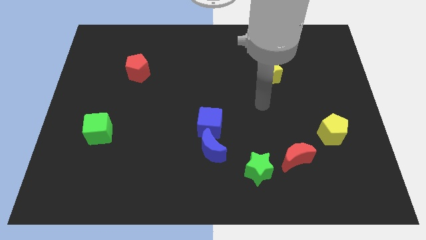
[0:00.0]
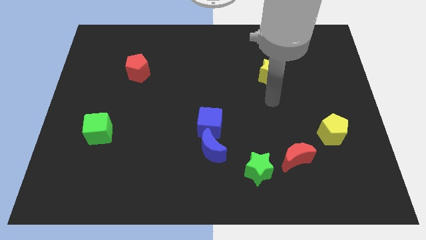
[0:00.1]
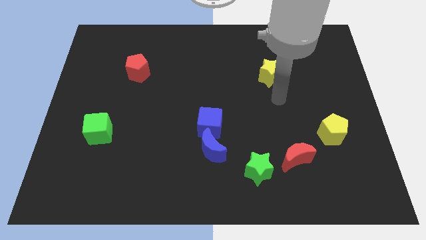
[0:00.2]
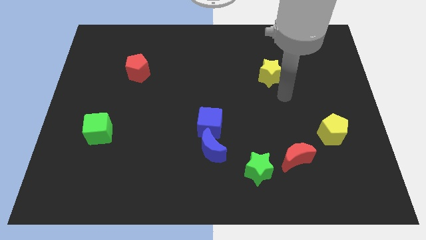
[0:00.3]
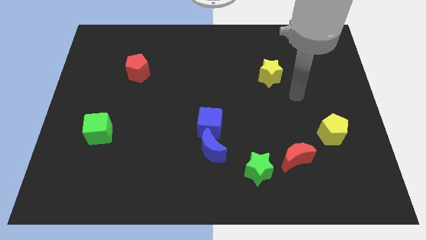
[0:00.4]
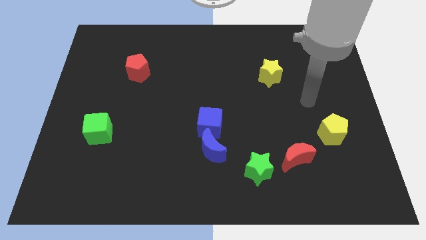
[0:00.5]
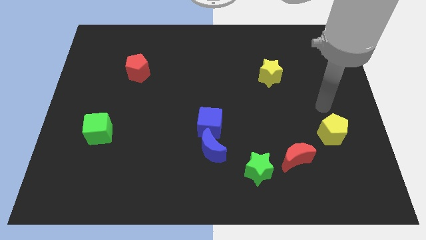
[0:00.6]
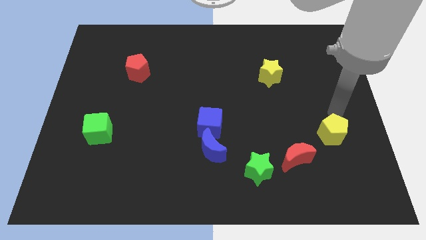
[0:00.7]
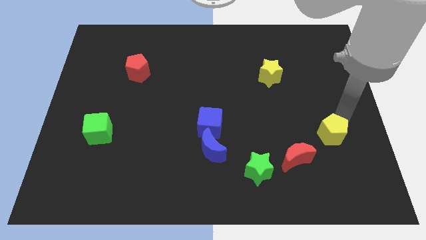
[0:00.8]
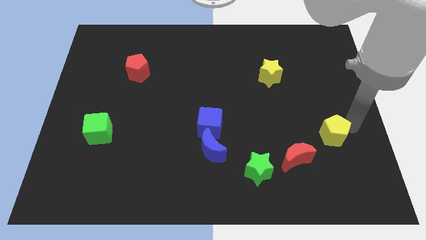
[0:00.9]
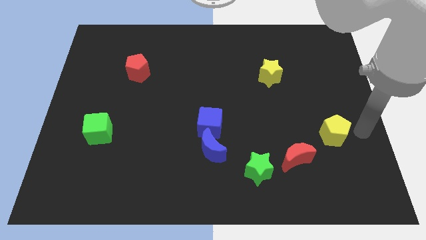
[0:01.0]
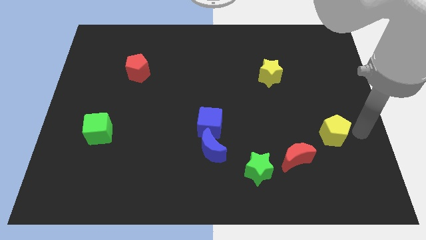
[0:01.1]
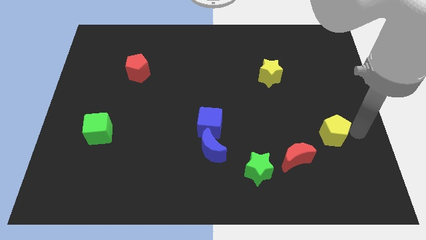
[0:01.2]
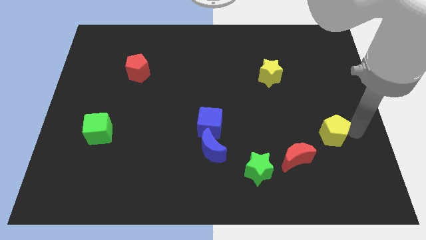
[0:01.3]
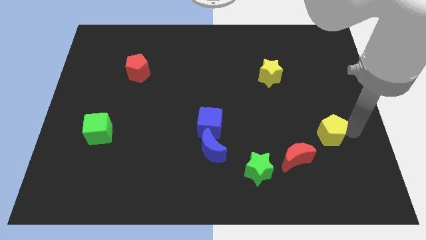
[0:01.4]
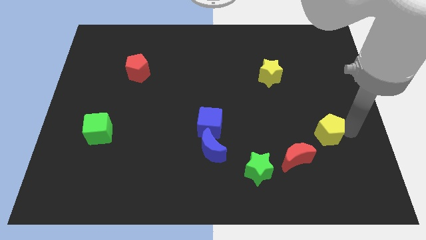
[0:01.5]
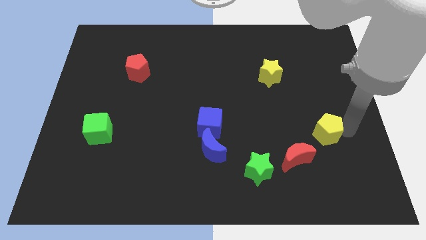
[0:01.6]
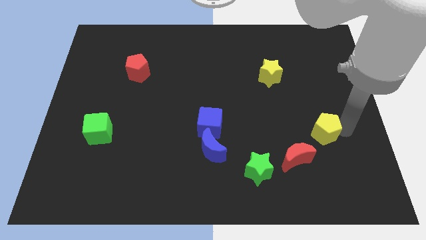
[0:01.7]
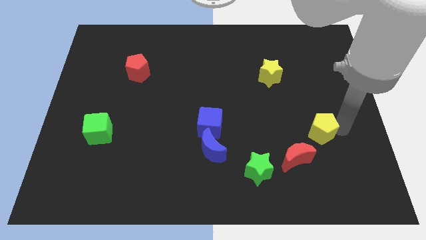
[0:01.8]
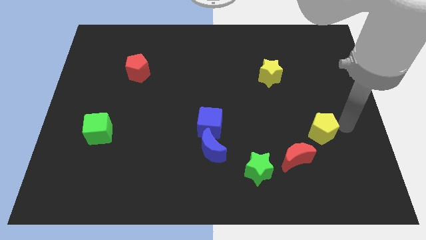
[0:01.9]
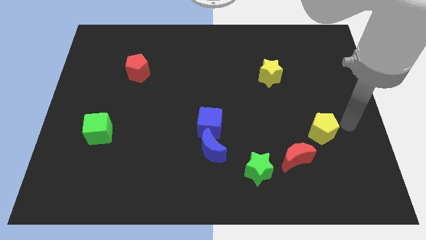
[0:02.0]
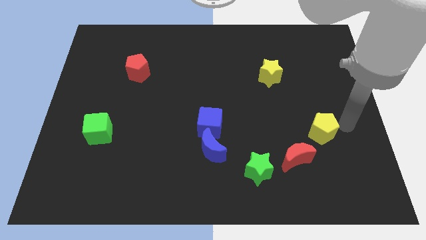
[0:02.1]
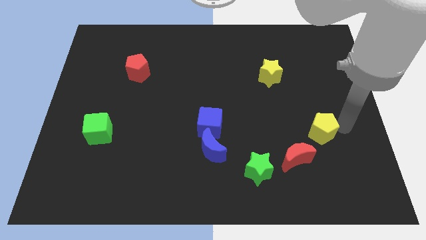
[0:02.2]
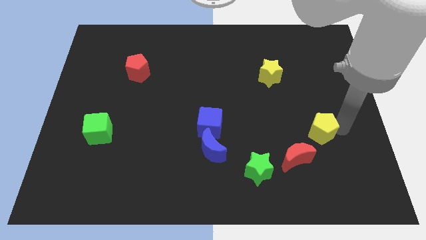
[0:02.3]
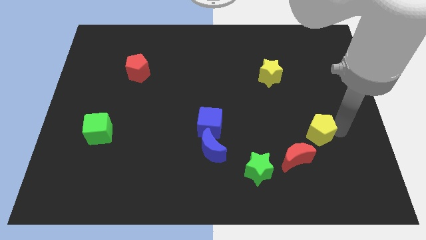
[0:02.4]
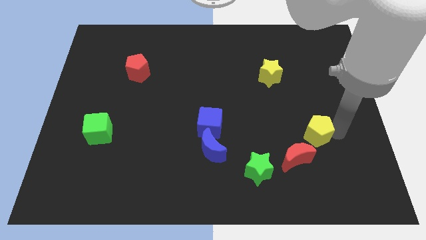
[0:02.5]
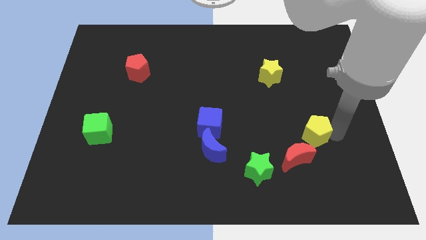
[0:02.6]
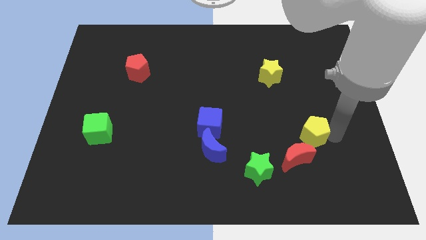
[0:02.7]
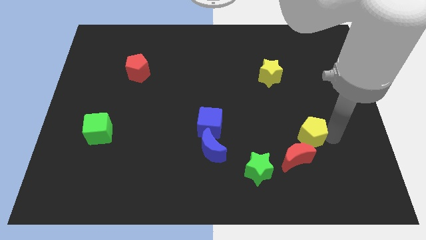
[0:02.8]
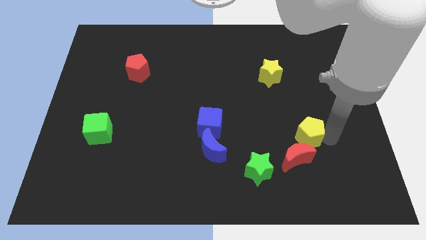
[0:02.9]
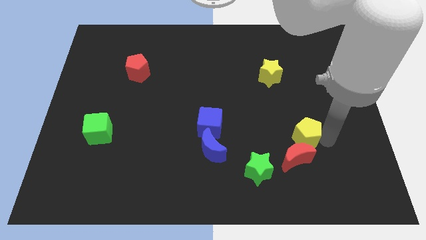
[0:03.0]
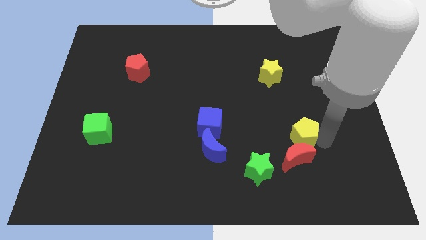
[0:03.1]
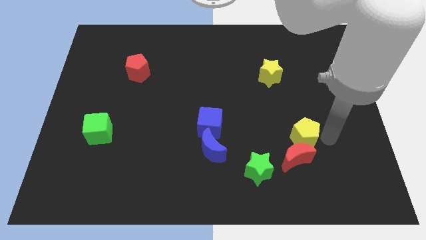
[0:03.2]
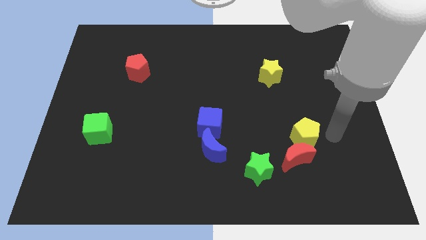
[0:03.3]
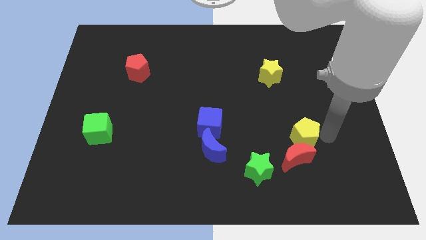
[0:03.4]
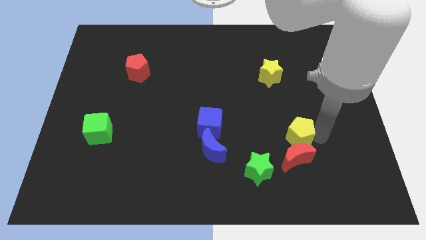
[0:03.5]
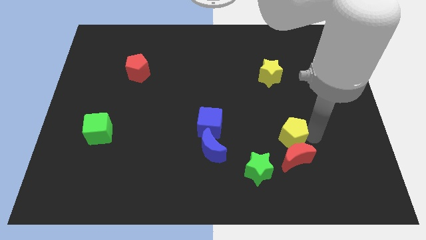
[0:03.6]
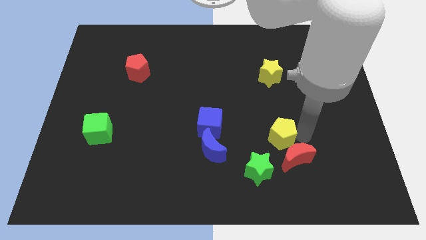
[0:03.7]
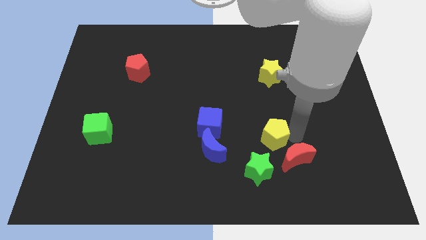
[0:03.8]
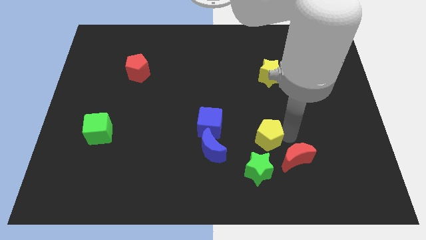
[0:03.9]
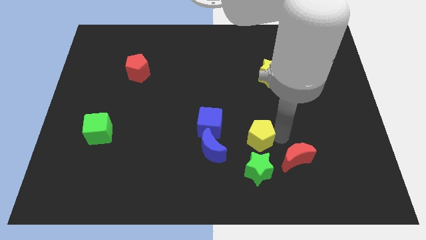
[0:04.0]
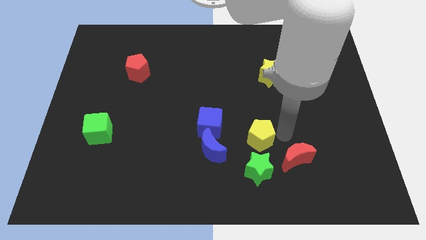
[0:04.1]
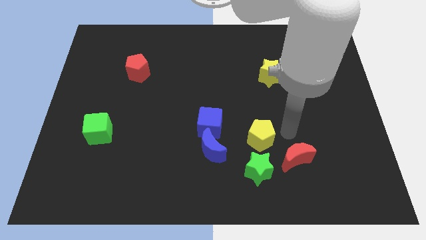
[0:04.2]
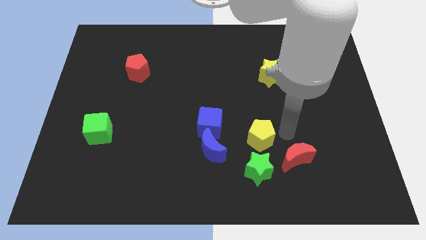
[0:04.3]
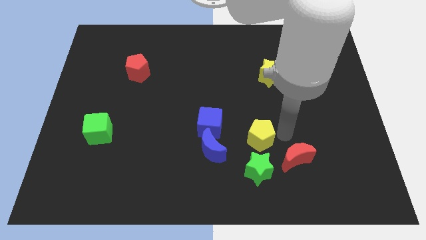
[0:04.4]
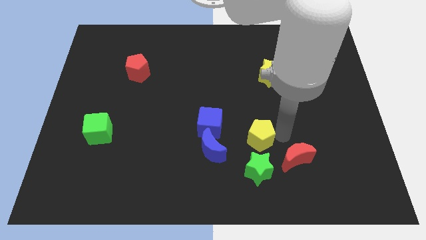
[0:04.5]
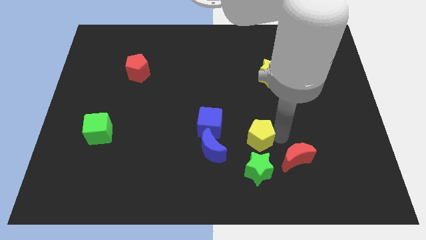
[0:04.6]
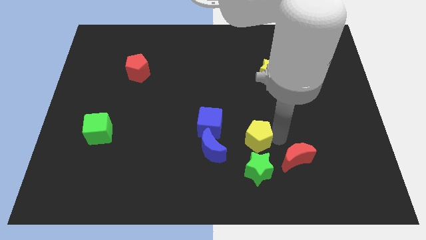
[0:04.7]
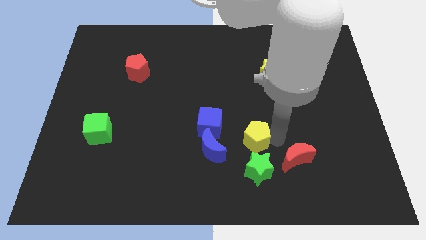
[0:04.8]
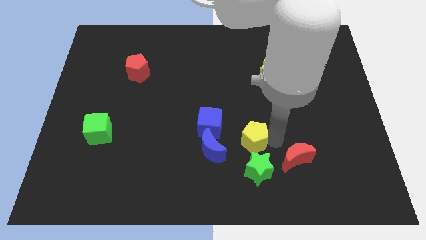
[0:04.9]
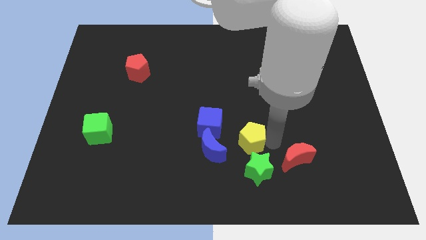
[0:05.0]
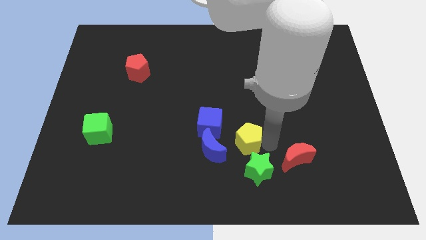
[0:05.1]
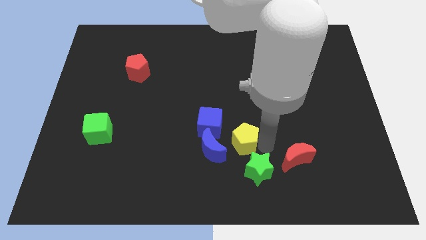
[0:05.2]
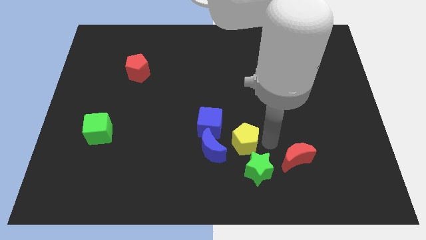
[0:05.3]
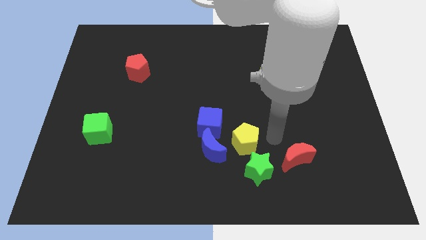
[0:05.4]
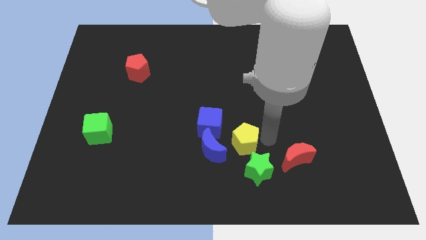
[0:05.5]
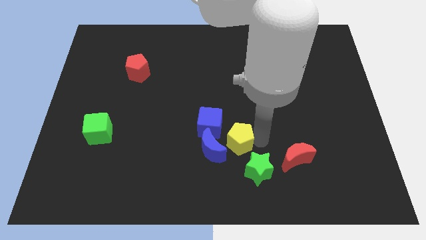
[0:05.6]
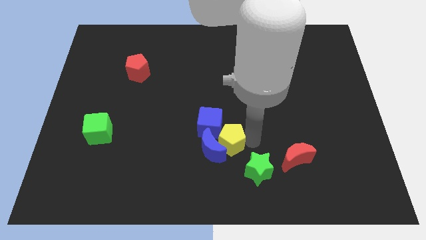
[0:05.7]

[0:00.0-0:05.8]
move the yellow pentagon close to the blue moon

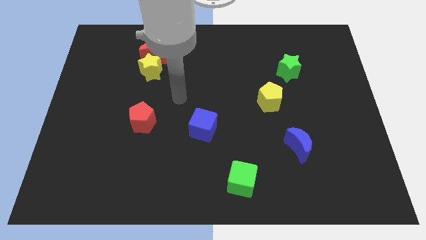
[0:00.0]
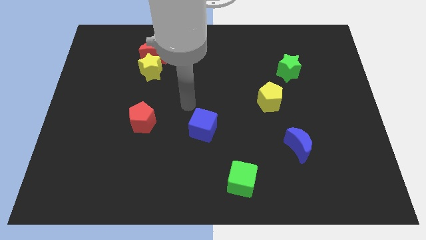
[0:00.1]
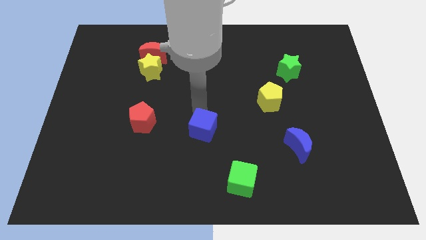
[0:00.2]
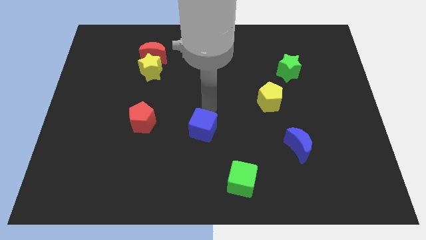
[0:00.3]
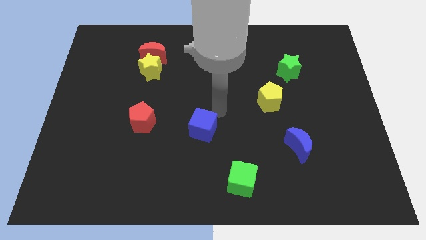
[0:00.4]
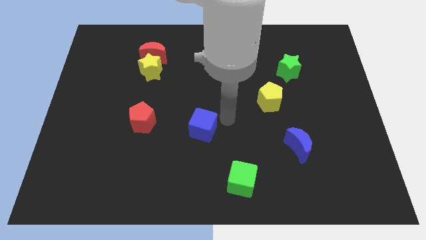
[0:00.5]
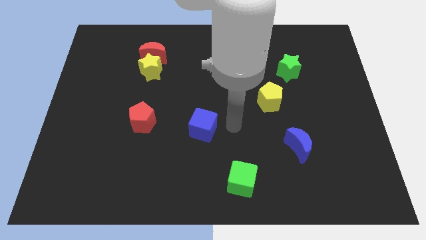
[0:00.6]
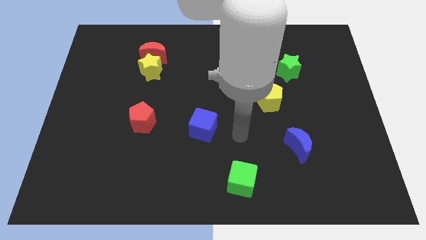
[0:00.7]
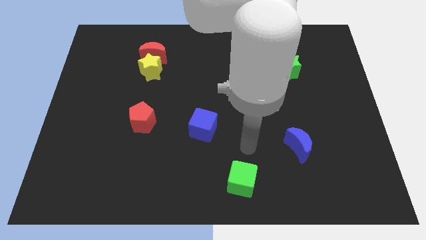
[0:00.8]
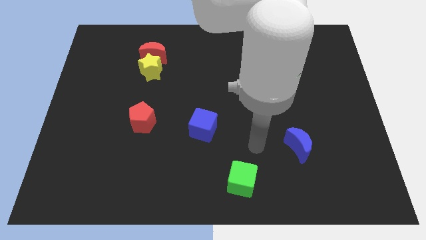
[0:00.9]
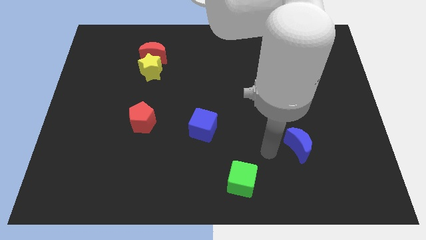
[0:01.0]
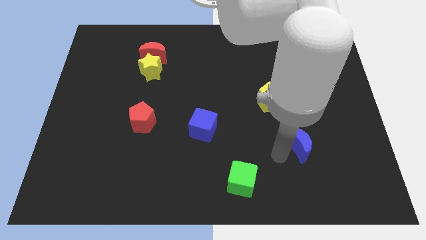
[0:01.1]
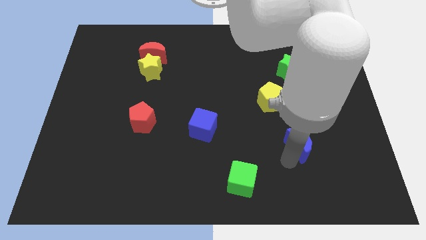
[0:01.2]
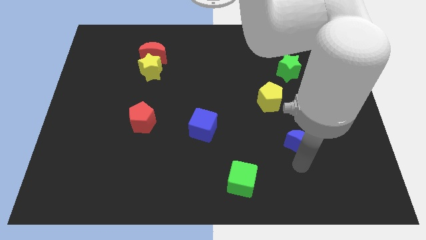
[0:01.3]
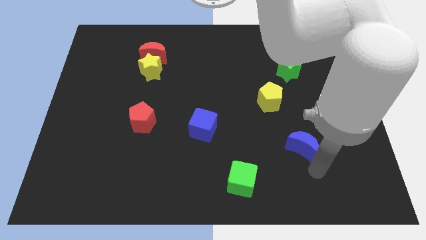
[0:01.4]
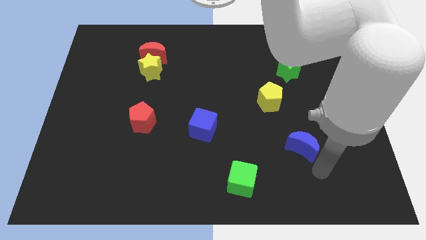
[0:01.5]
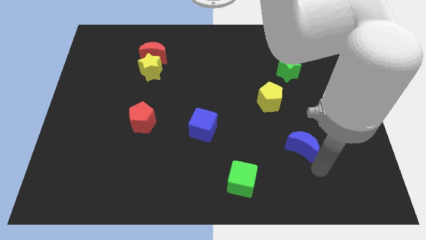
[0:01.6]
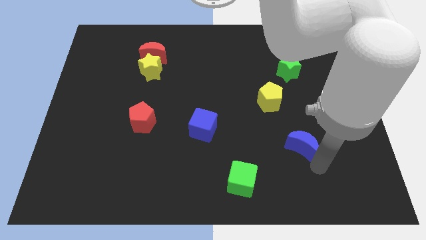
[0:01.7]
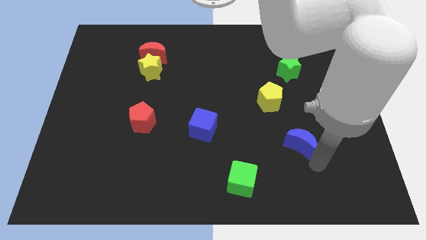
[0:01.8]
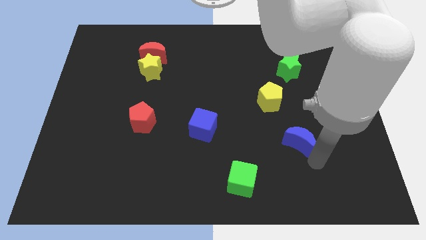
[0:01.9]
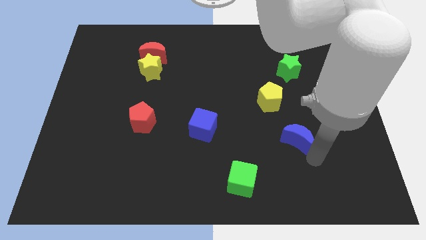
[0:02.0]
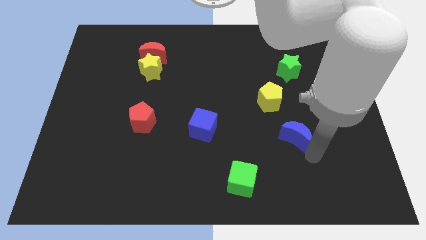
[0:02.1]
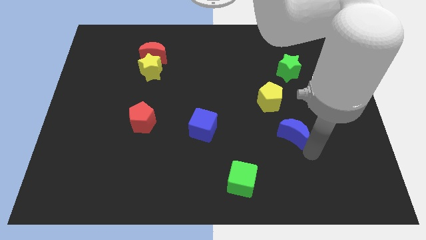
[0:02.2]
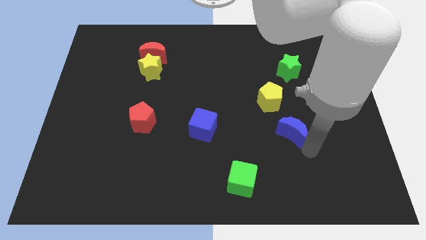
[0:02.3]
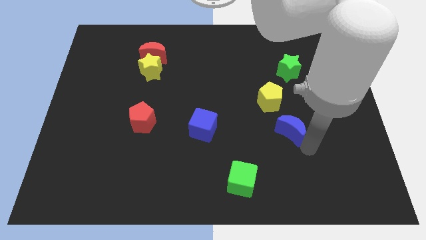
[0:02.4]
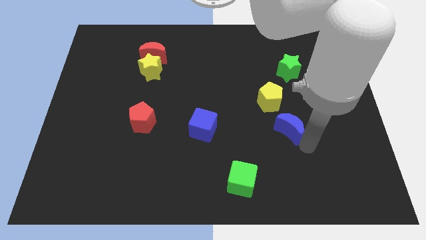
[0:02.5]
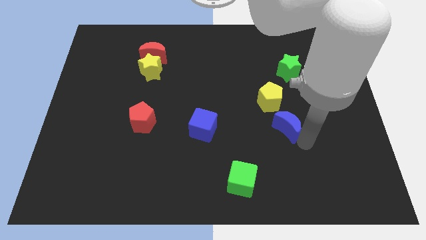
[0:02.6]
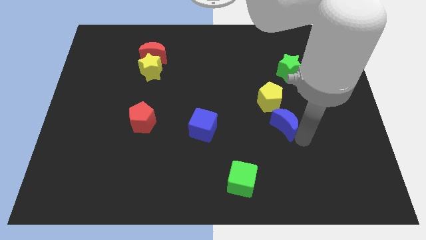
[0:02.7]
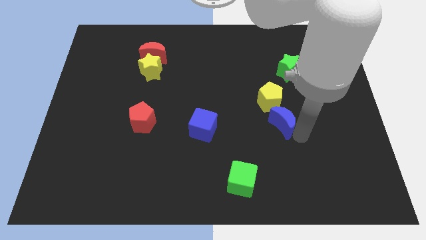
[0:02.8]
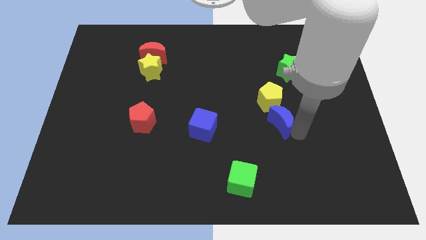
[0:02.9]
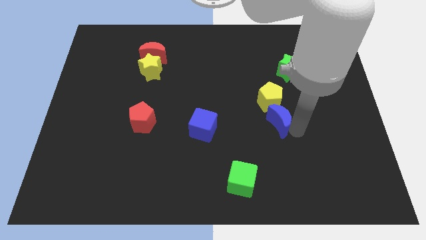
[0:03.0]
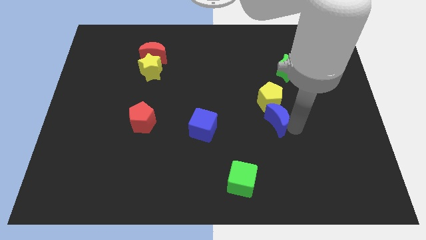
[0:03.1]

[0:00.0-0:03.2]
put the blue moon close to the yellow pentagon
